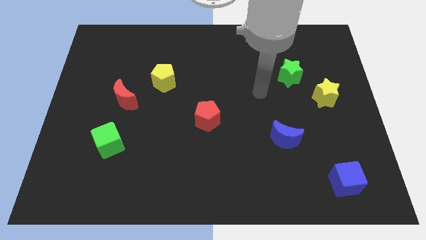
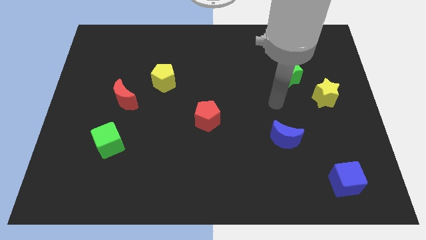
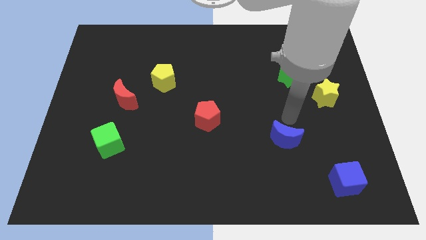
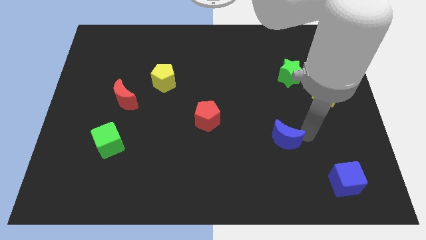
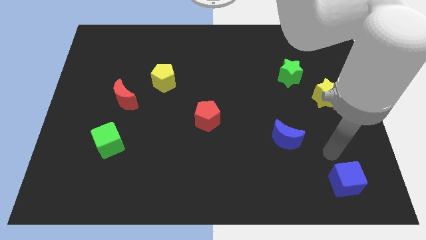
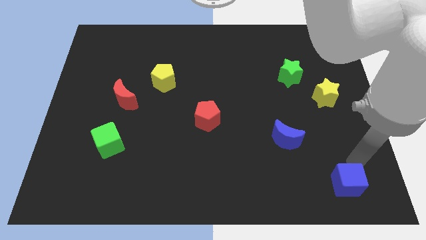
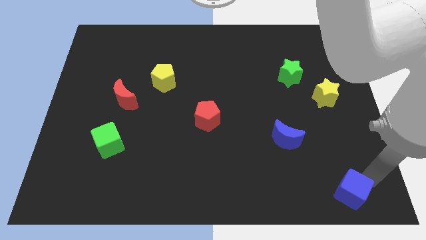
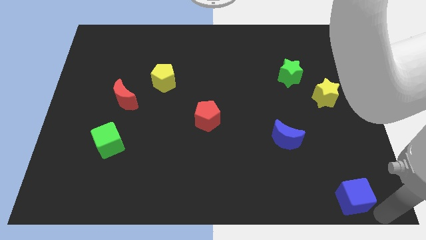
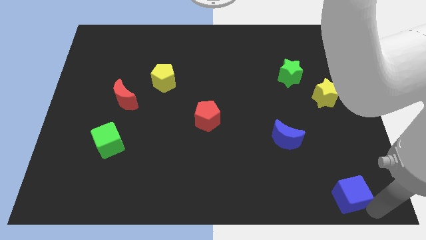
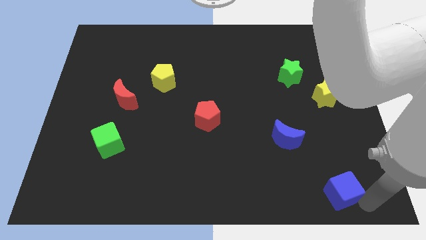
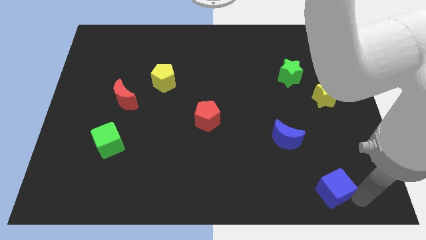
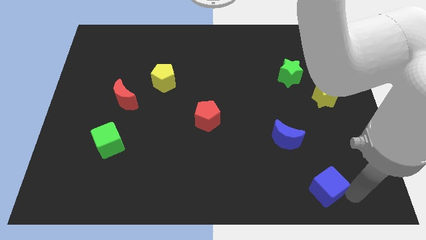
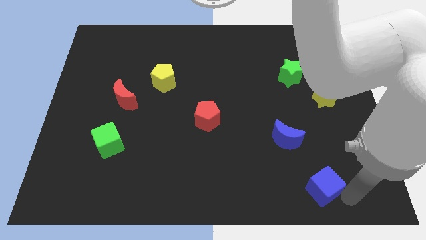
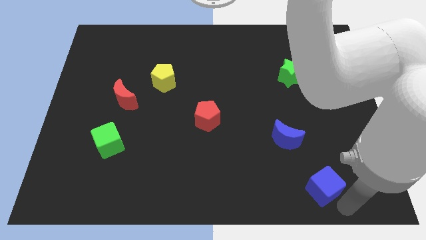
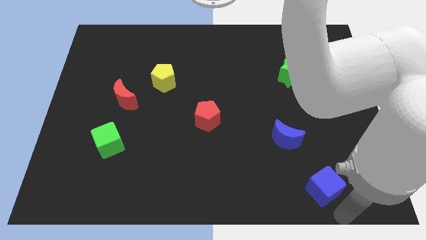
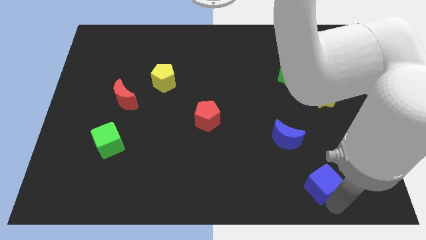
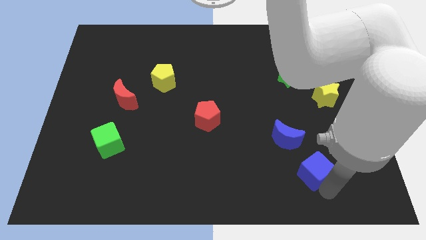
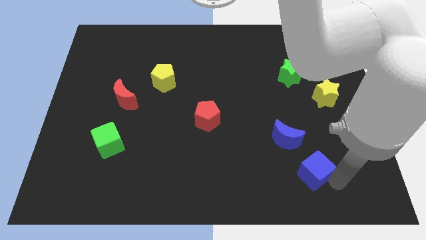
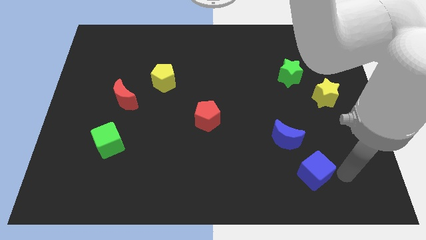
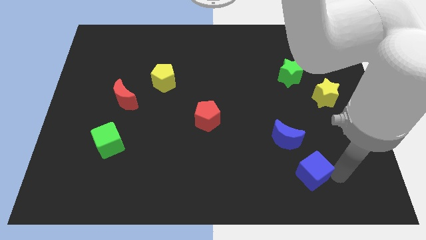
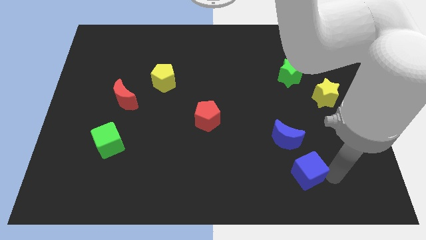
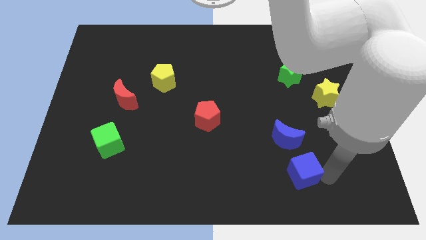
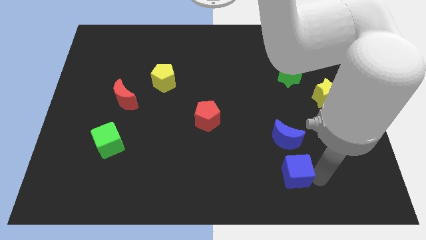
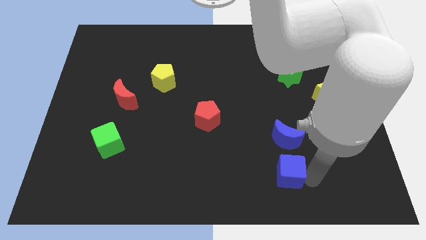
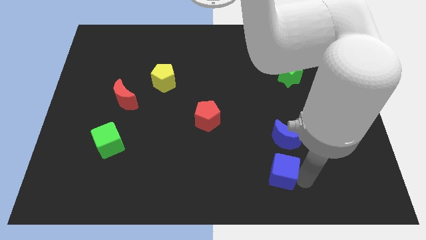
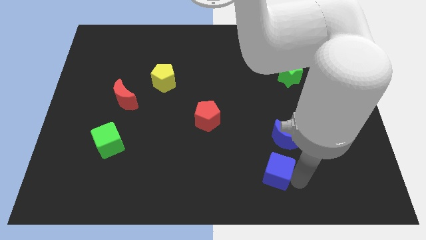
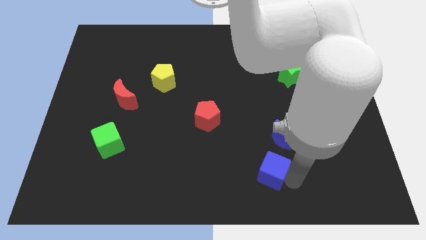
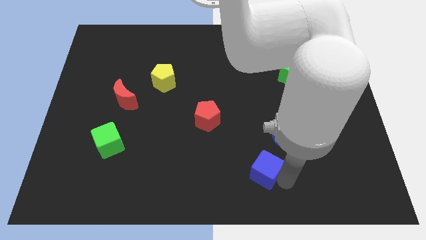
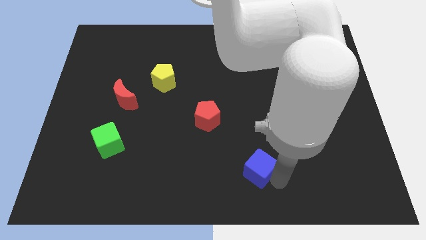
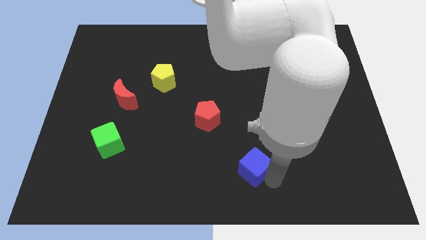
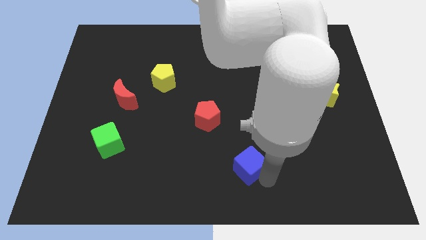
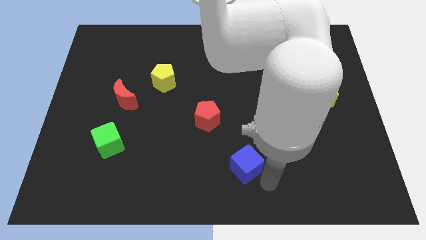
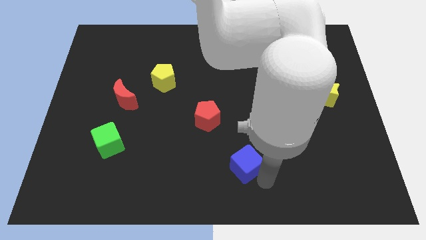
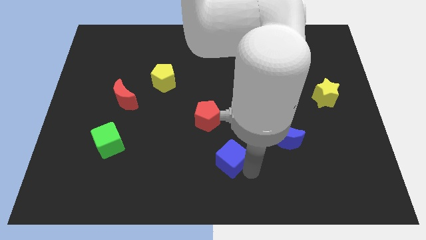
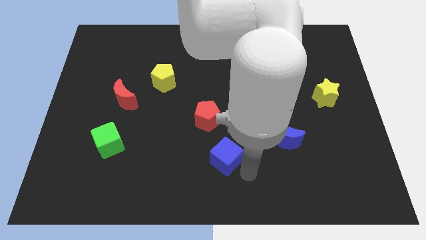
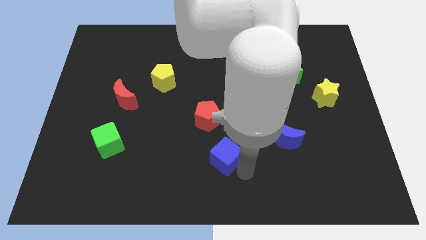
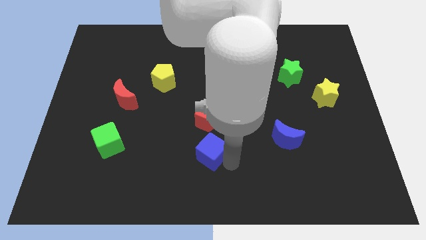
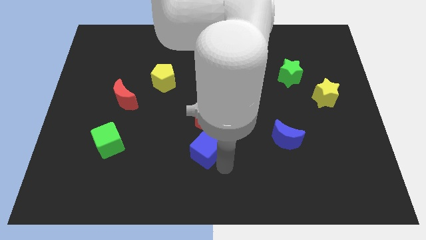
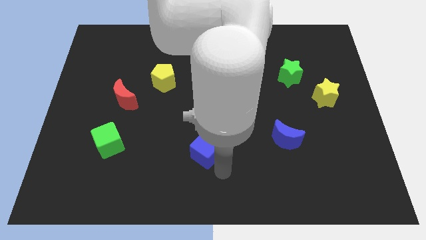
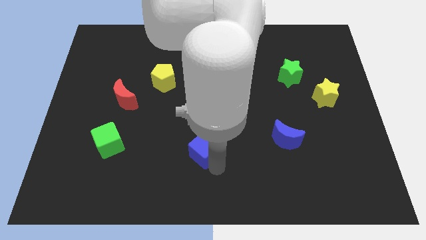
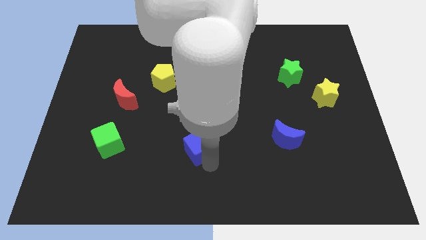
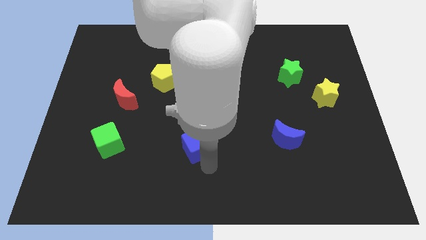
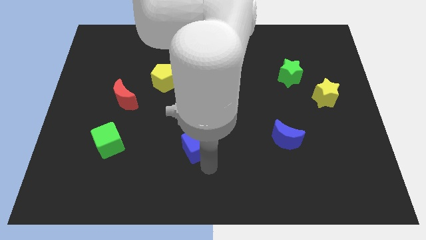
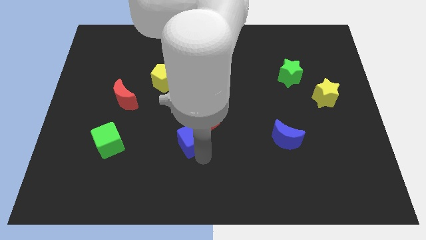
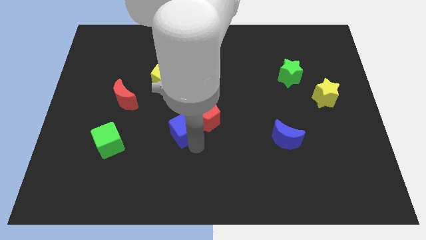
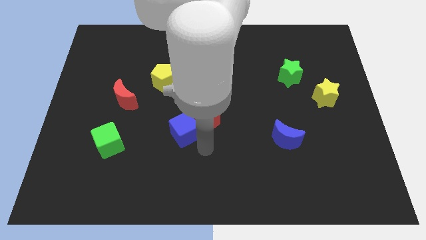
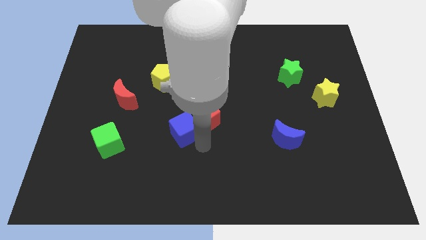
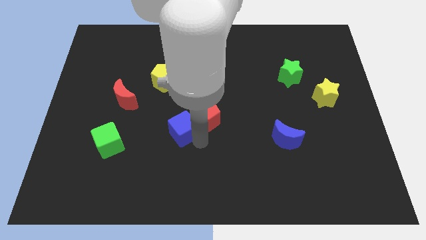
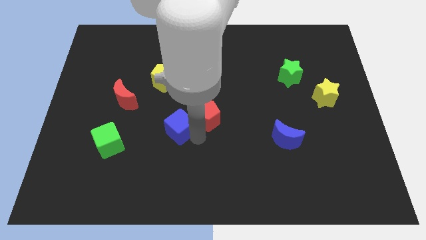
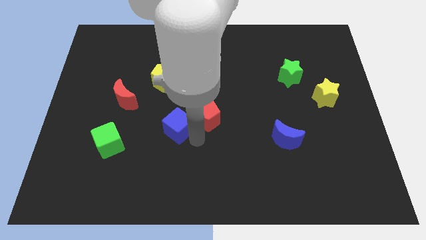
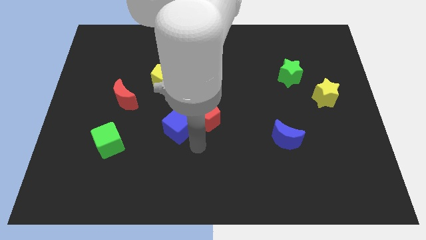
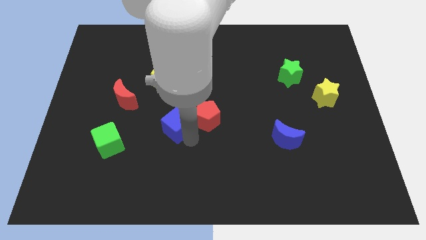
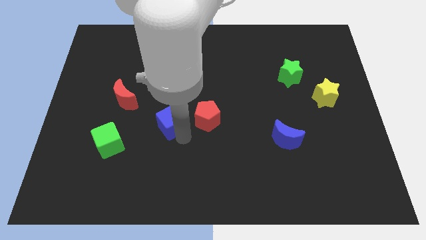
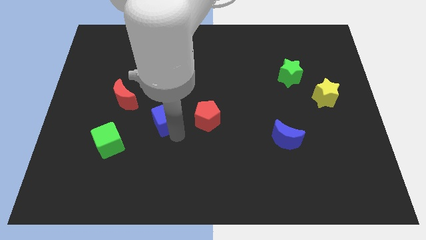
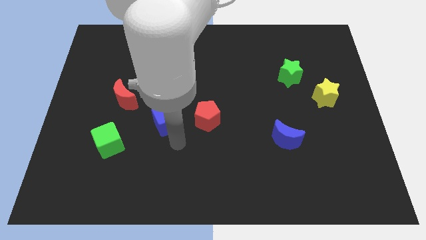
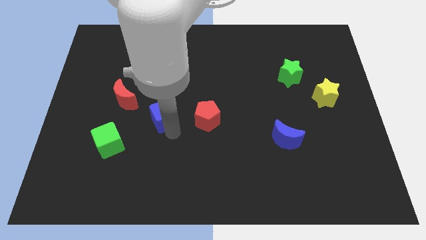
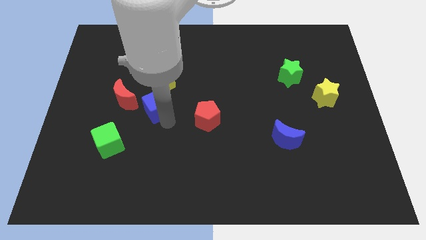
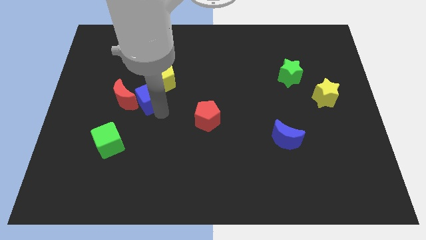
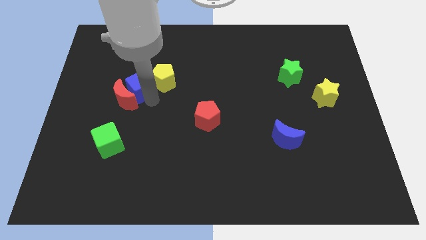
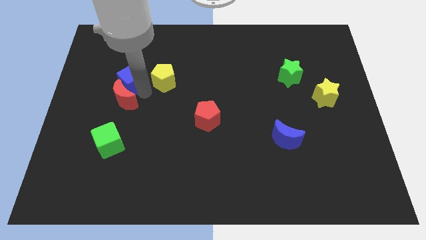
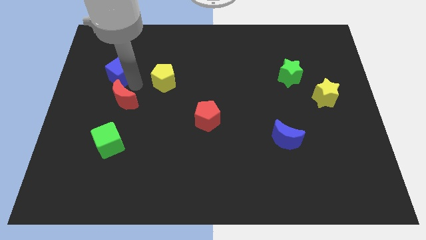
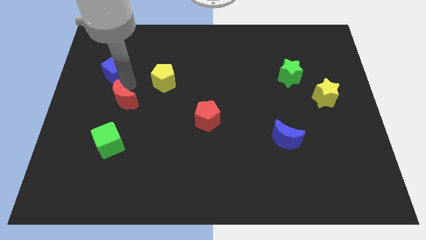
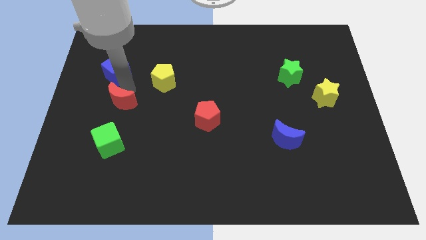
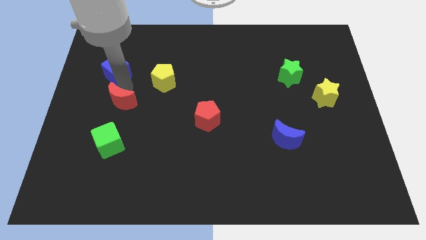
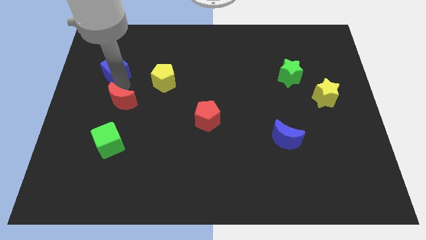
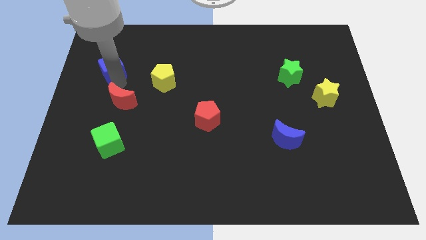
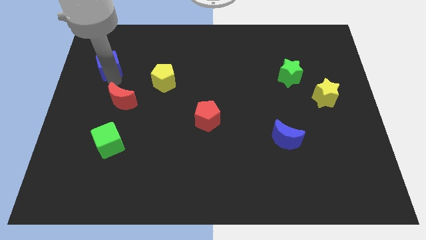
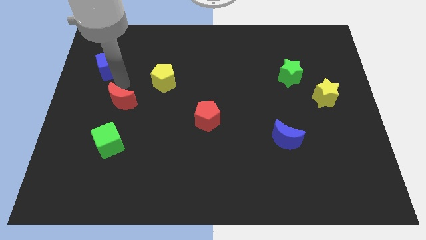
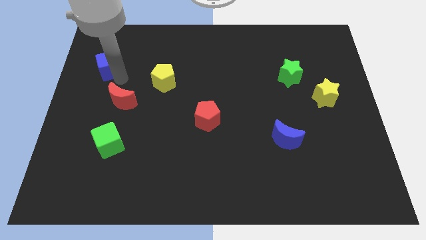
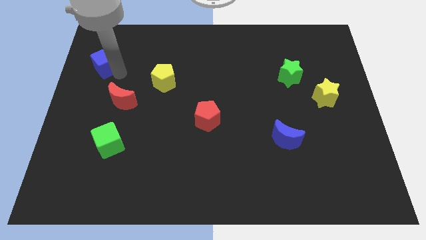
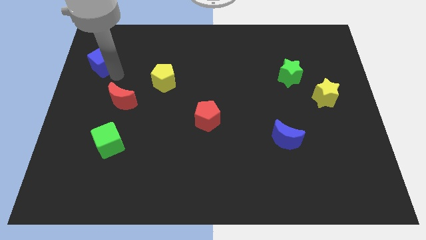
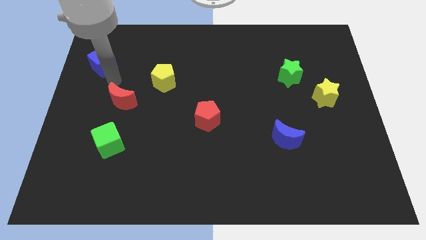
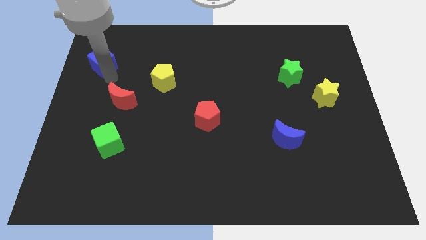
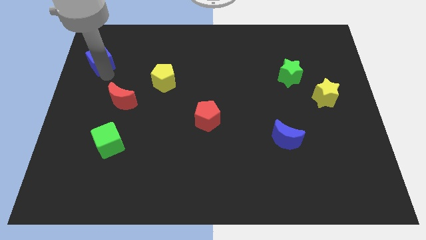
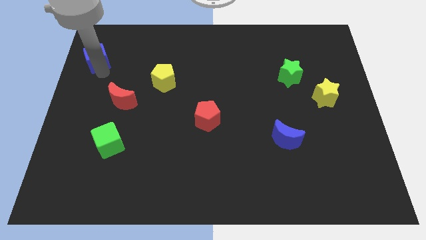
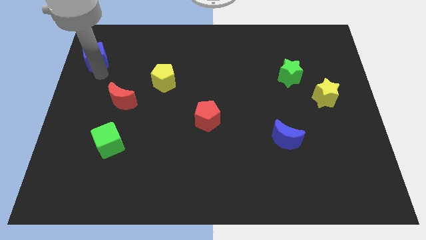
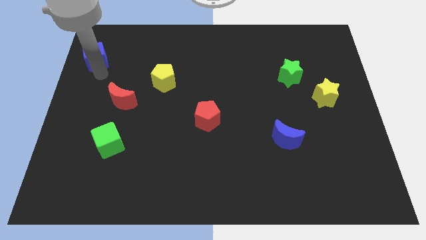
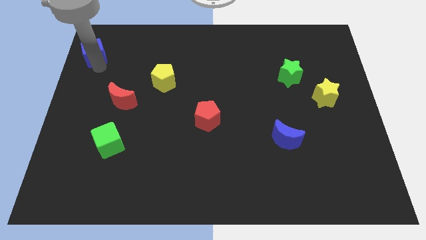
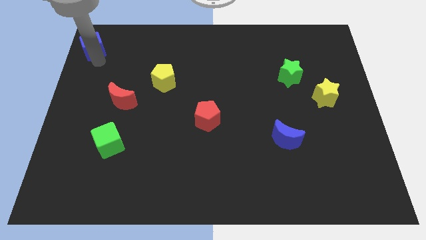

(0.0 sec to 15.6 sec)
push the blue cube to the top left corner
